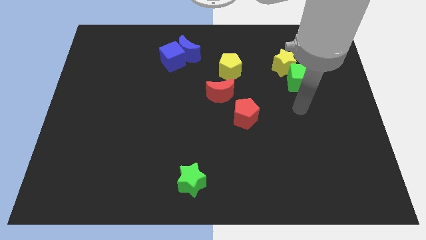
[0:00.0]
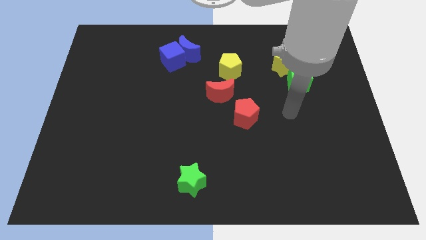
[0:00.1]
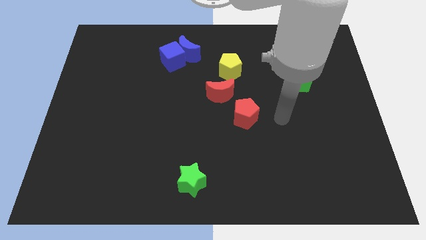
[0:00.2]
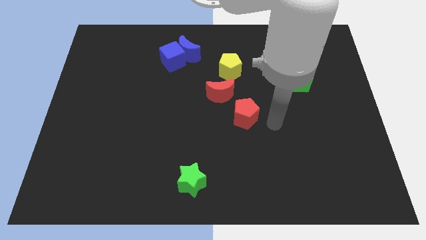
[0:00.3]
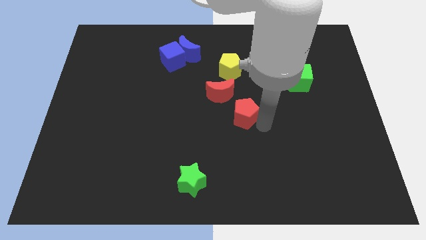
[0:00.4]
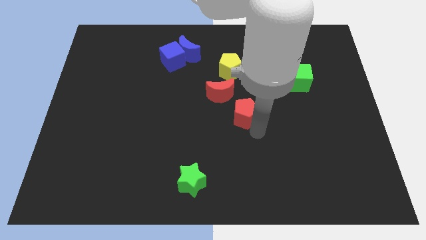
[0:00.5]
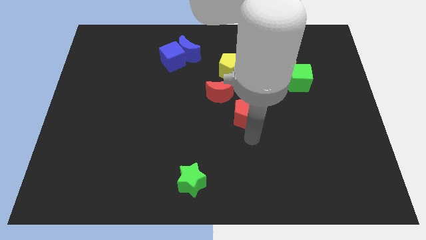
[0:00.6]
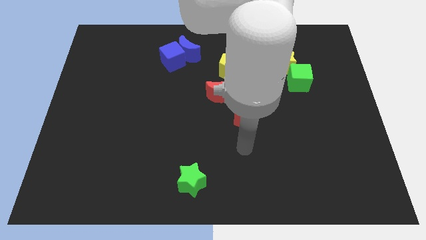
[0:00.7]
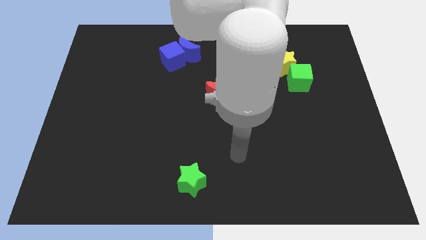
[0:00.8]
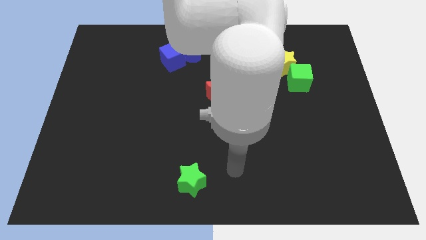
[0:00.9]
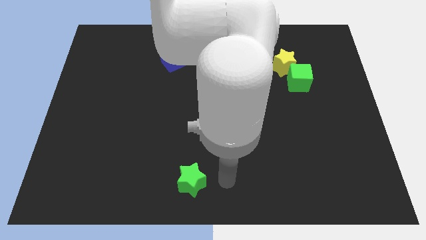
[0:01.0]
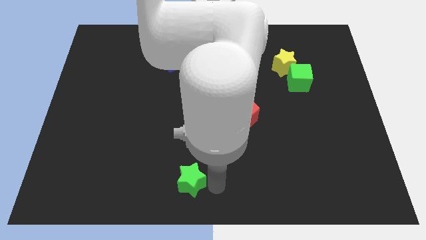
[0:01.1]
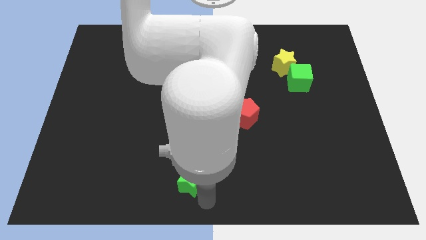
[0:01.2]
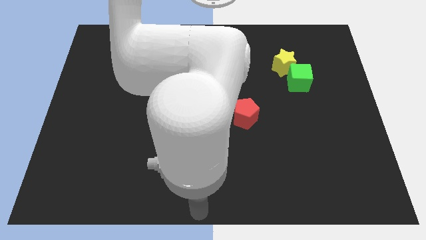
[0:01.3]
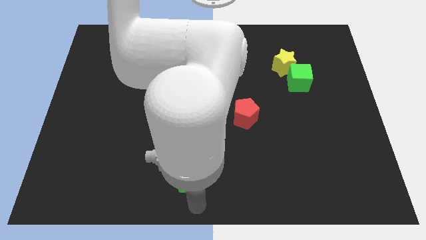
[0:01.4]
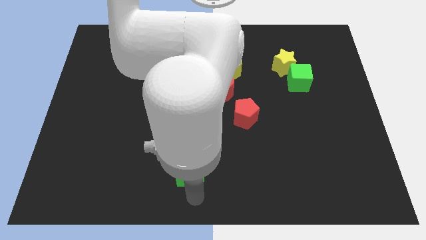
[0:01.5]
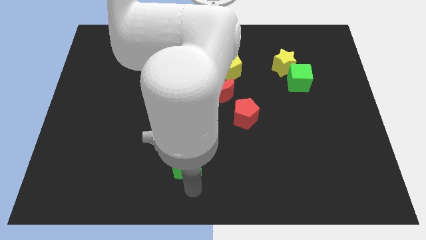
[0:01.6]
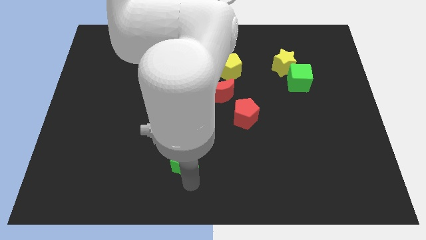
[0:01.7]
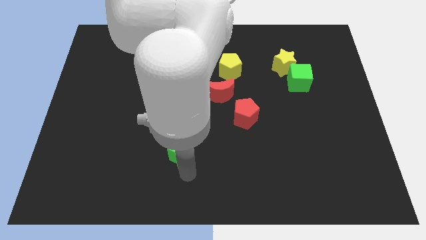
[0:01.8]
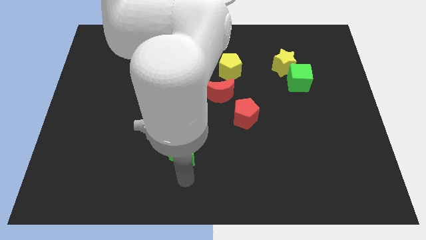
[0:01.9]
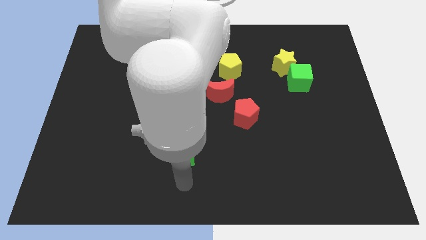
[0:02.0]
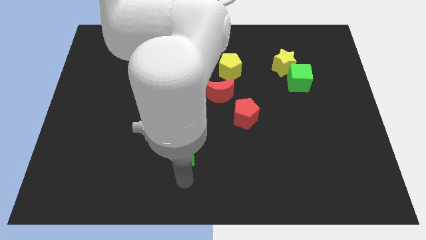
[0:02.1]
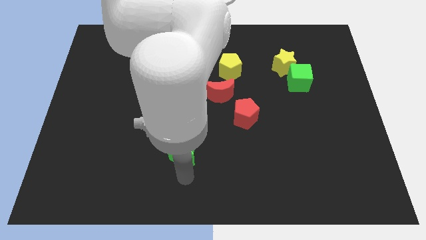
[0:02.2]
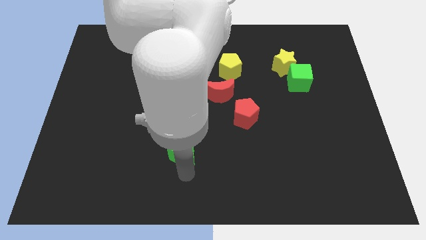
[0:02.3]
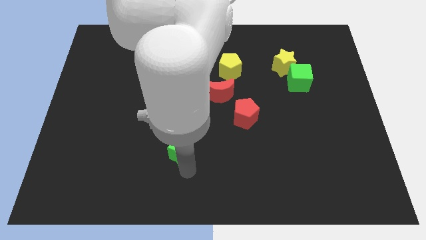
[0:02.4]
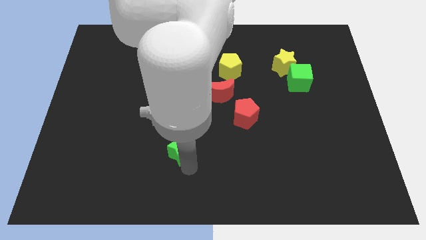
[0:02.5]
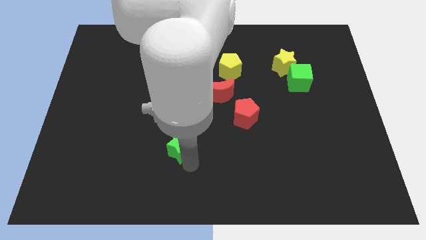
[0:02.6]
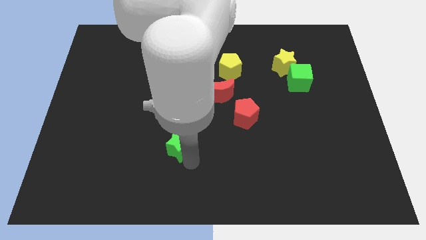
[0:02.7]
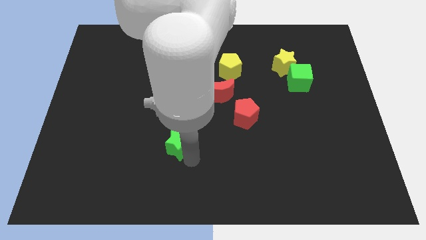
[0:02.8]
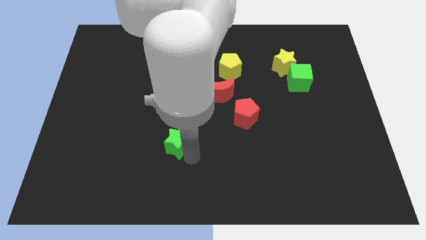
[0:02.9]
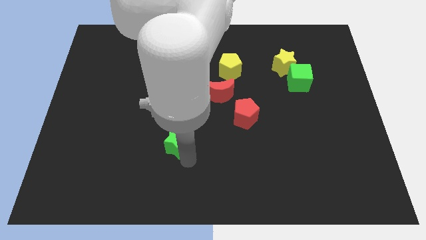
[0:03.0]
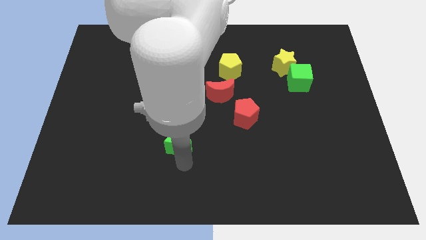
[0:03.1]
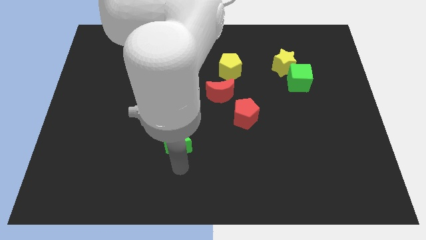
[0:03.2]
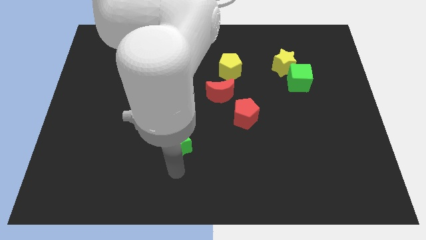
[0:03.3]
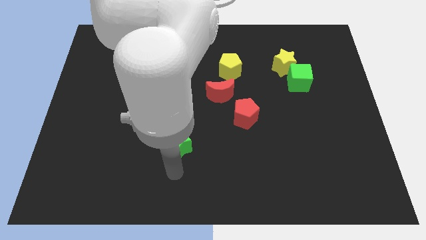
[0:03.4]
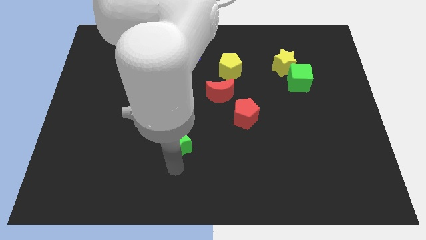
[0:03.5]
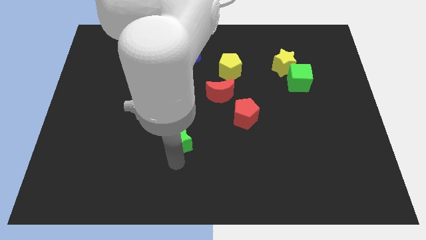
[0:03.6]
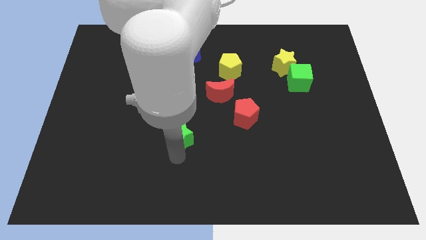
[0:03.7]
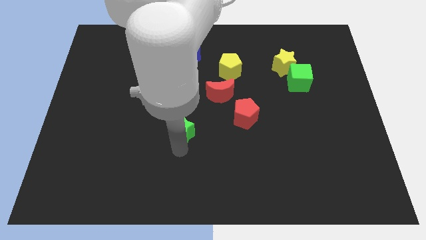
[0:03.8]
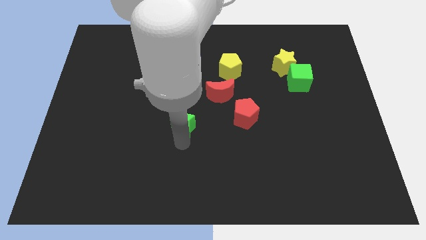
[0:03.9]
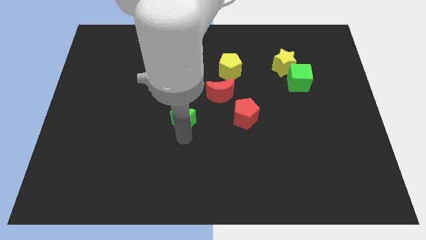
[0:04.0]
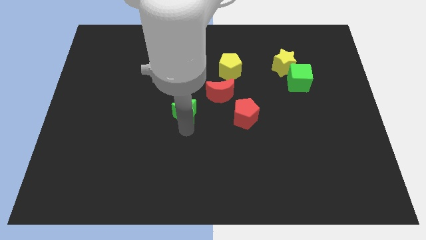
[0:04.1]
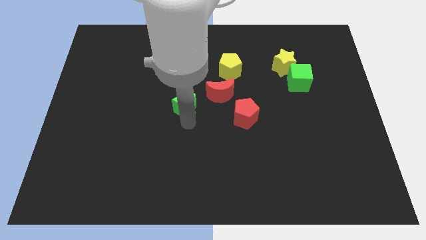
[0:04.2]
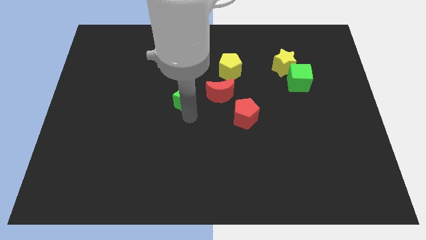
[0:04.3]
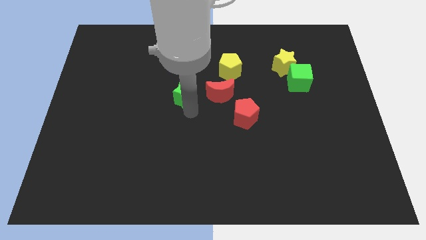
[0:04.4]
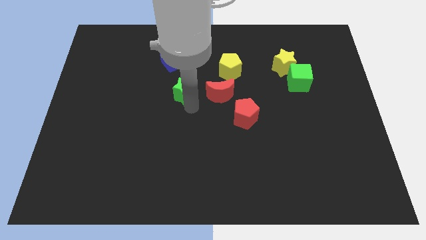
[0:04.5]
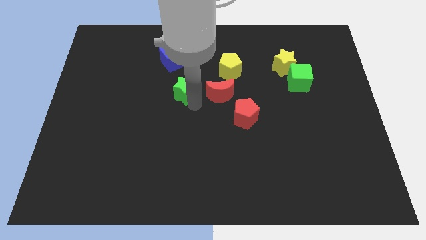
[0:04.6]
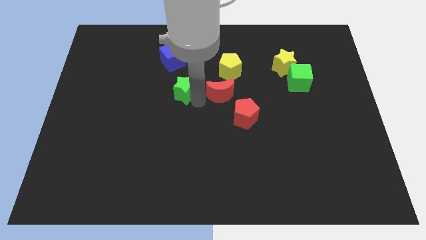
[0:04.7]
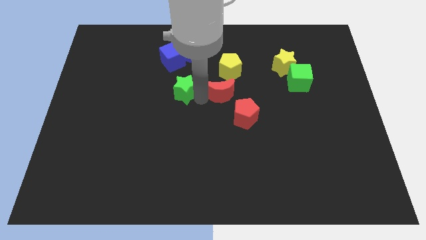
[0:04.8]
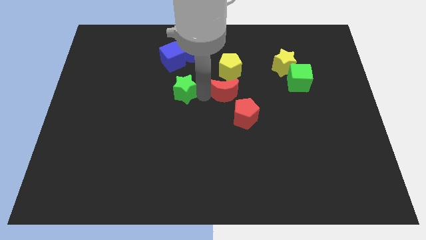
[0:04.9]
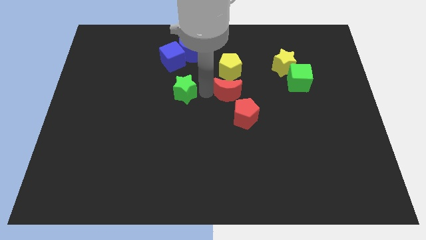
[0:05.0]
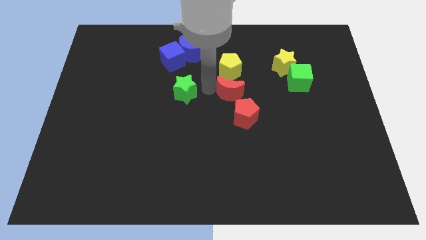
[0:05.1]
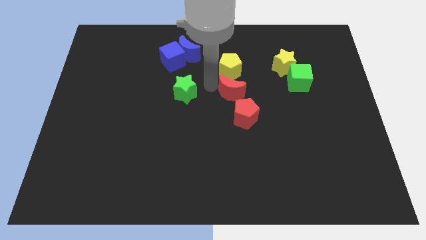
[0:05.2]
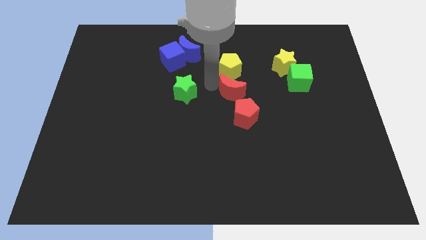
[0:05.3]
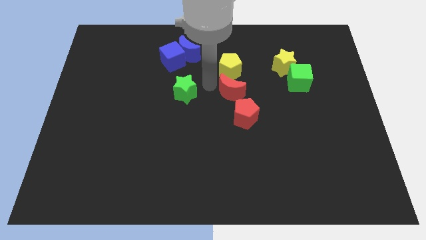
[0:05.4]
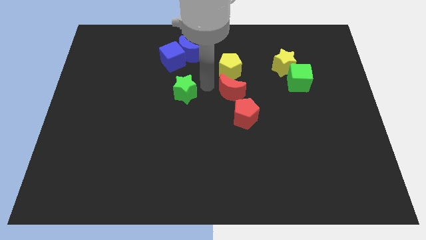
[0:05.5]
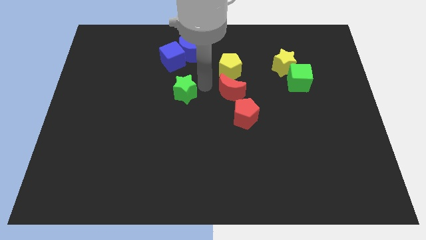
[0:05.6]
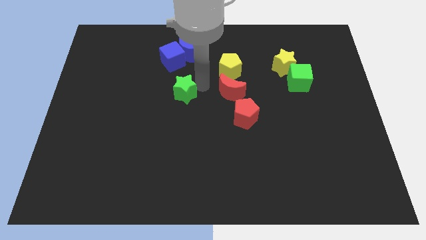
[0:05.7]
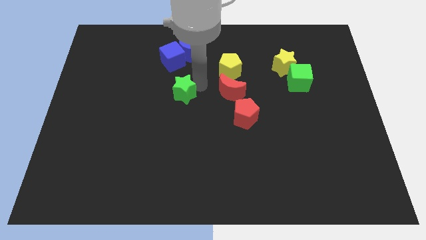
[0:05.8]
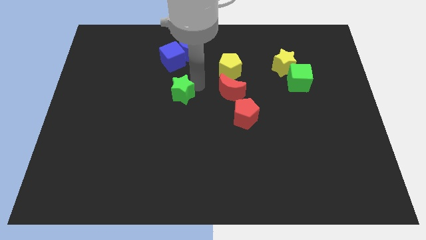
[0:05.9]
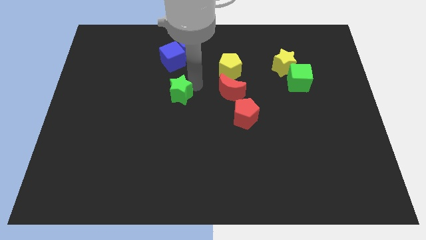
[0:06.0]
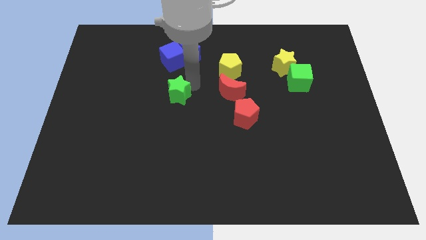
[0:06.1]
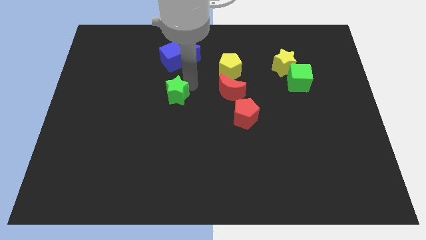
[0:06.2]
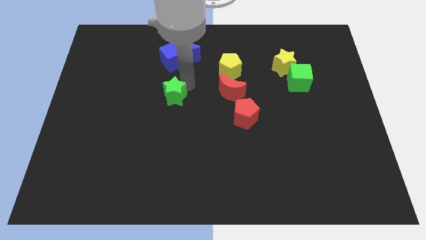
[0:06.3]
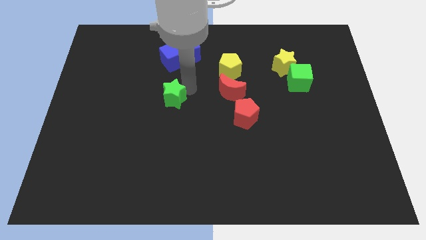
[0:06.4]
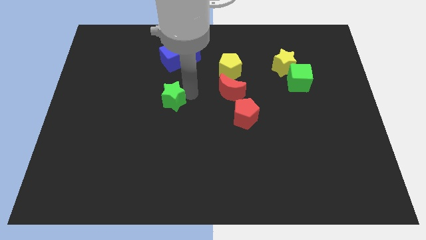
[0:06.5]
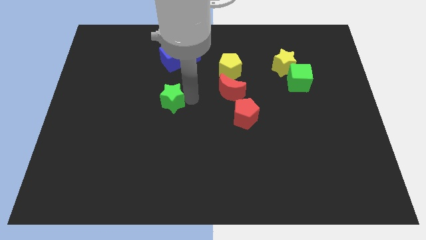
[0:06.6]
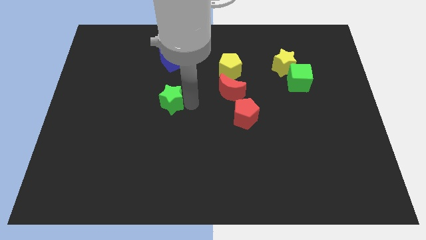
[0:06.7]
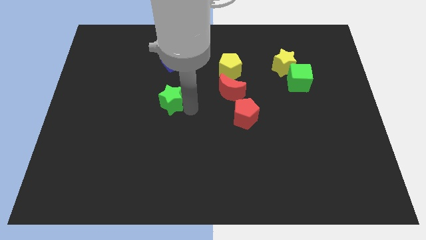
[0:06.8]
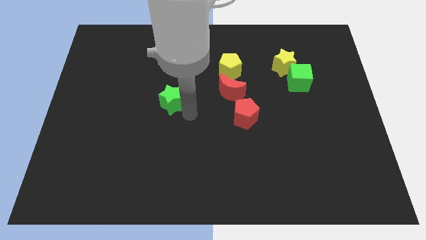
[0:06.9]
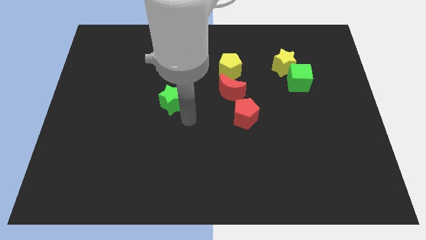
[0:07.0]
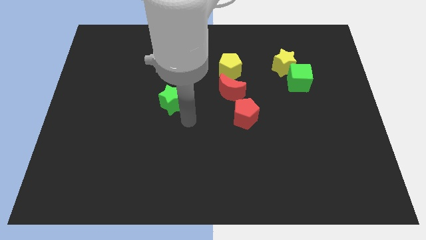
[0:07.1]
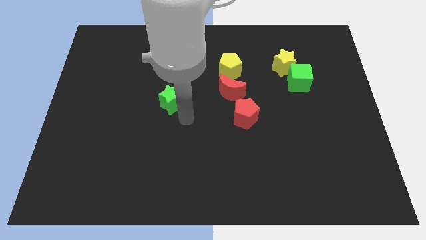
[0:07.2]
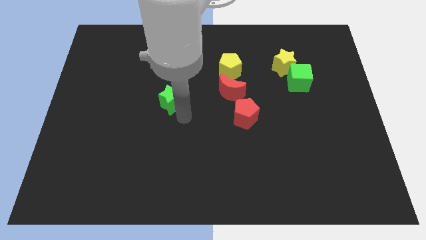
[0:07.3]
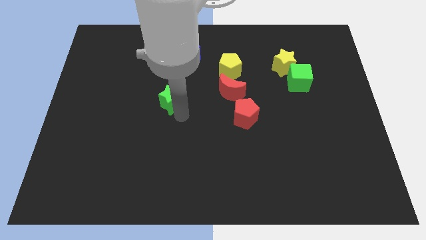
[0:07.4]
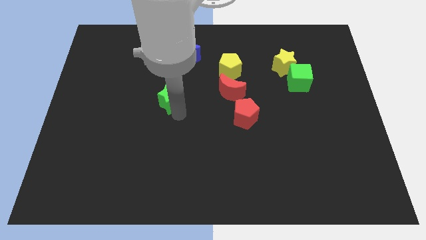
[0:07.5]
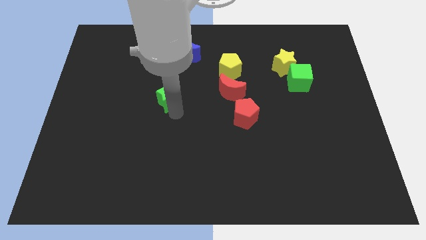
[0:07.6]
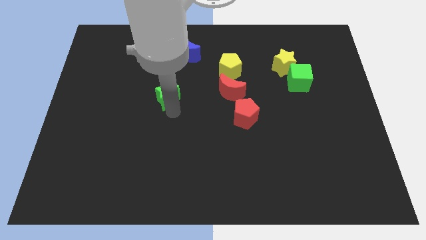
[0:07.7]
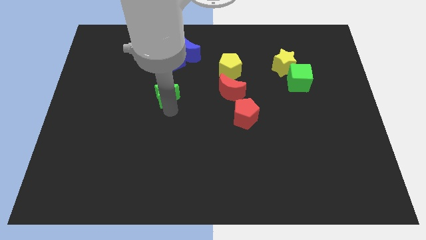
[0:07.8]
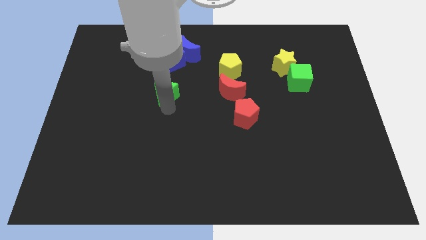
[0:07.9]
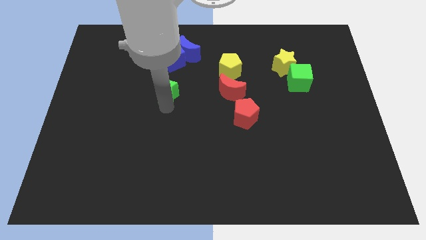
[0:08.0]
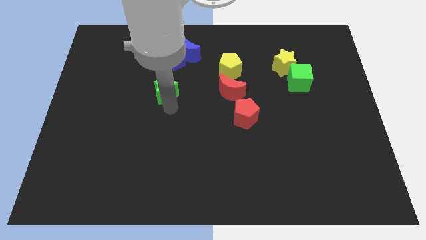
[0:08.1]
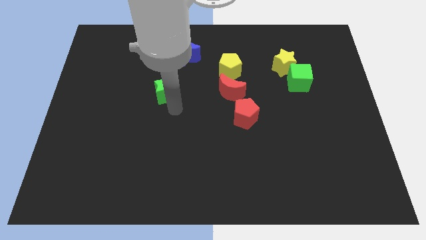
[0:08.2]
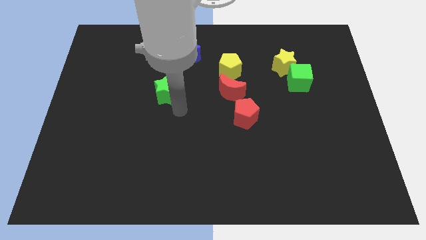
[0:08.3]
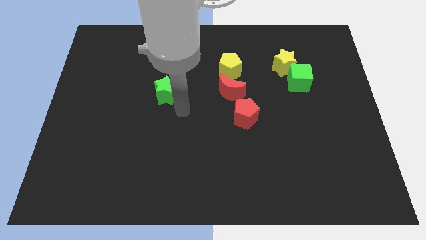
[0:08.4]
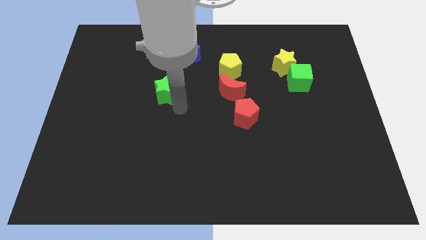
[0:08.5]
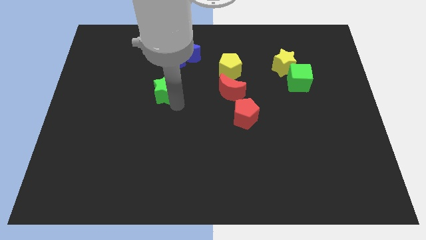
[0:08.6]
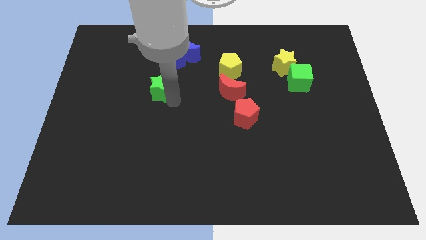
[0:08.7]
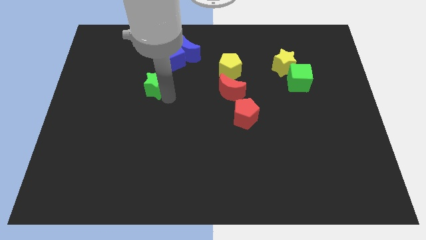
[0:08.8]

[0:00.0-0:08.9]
put the green star diagonally down and to the left of the blue cube
